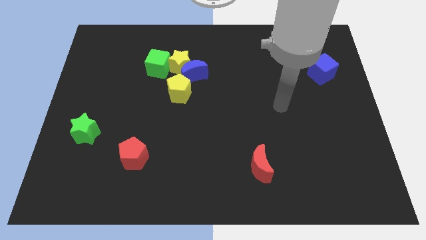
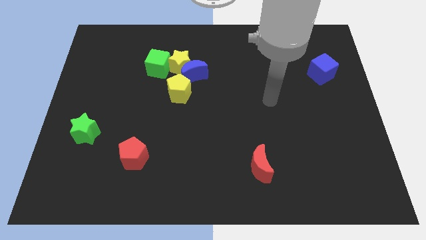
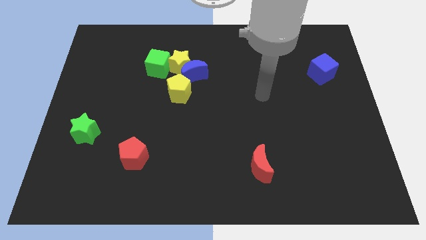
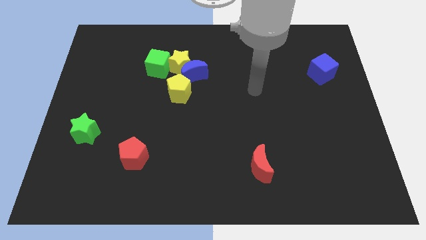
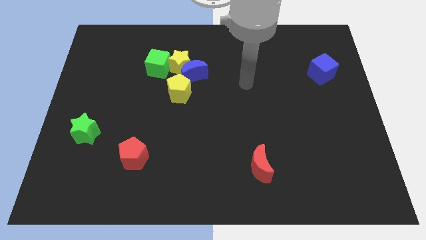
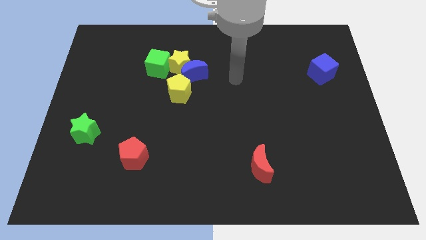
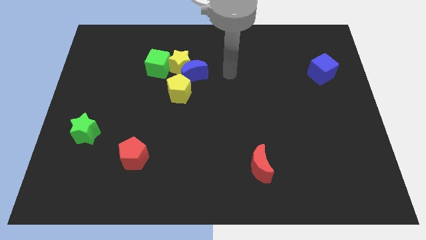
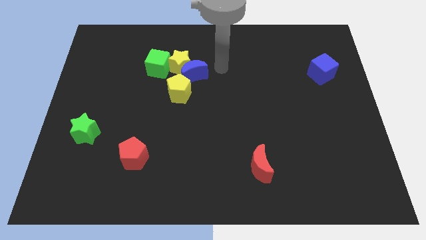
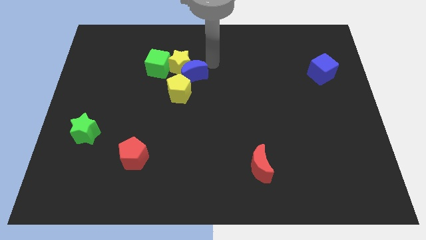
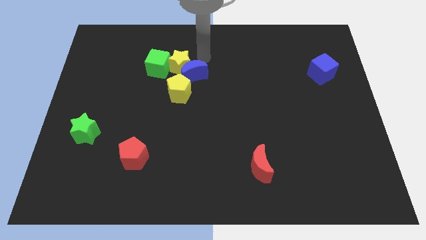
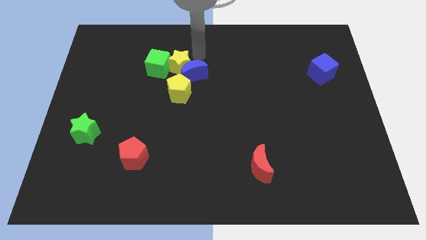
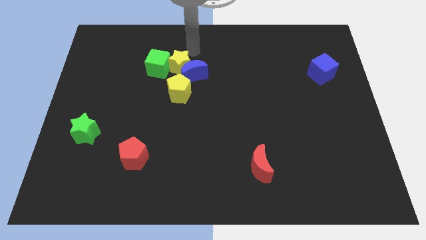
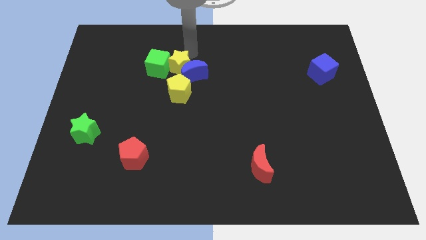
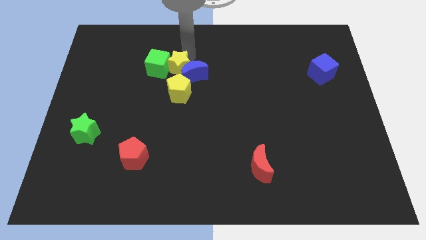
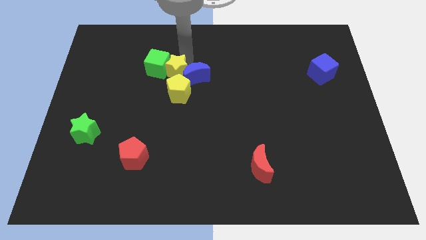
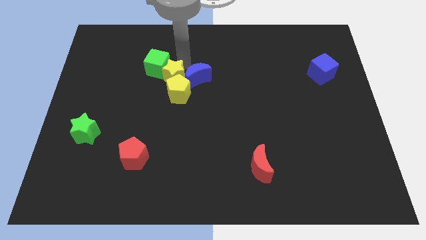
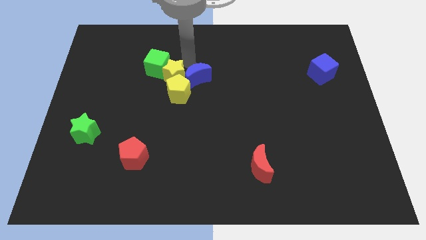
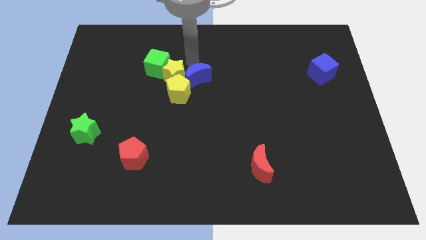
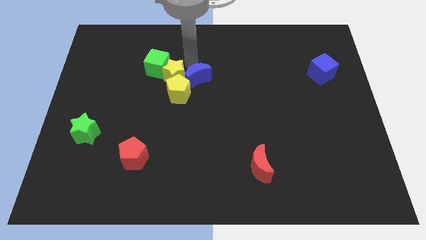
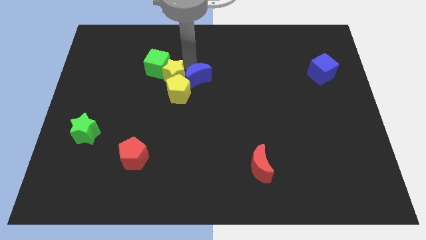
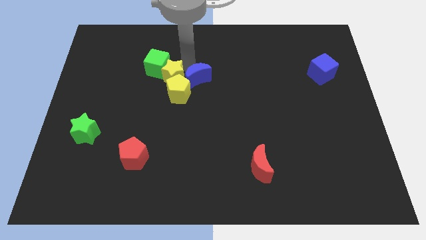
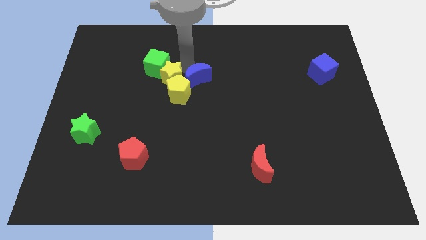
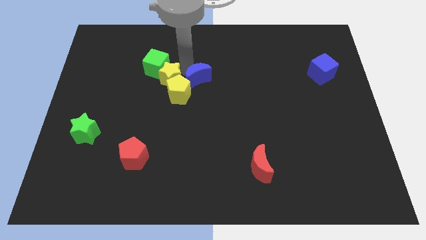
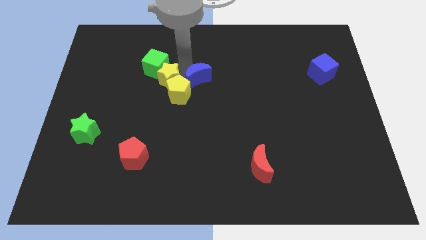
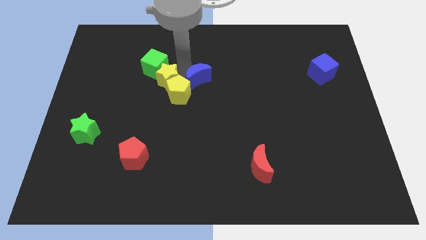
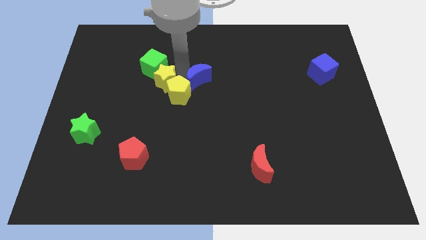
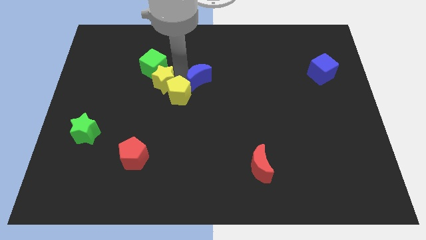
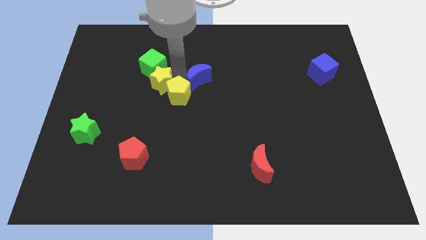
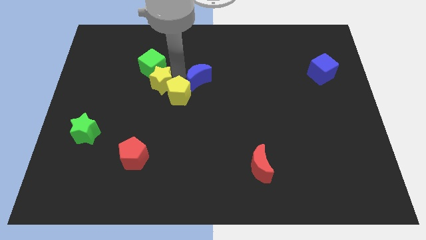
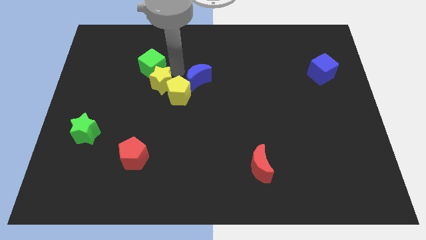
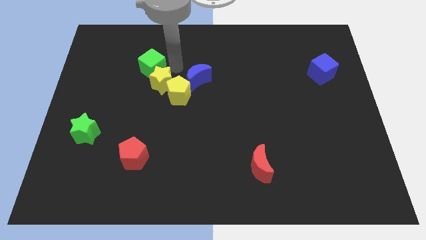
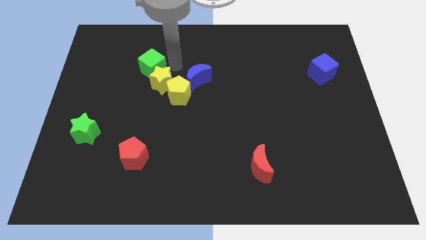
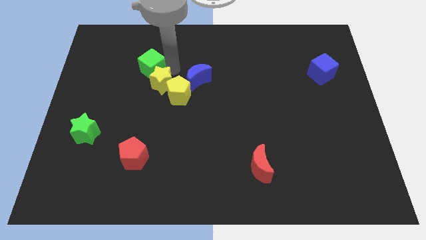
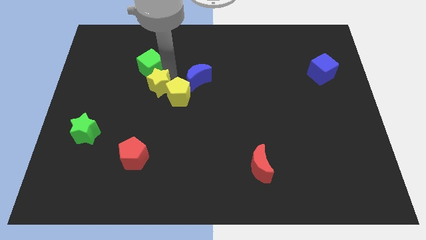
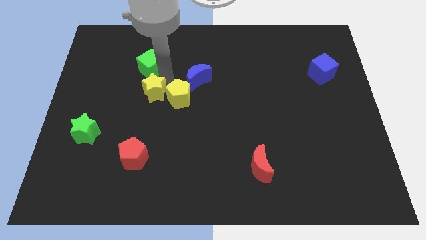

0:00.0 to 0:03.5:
slightly slide the yellow star down

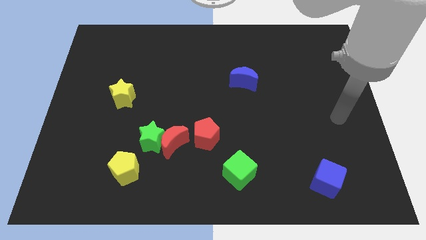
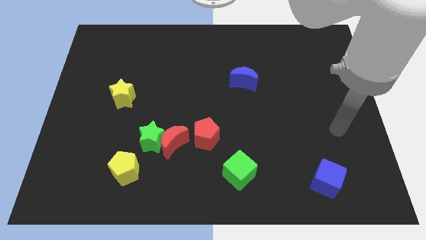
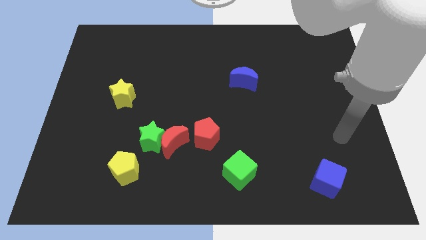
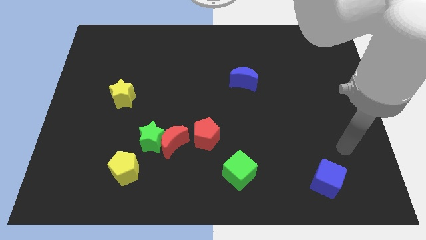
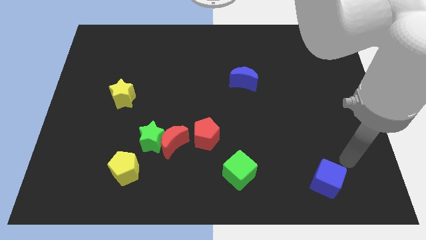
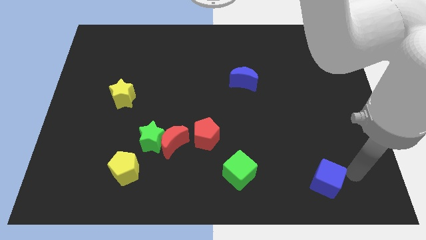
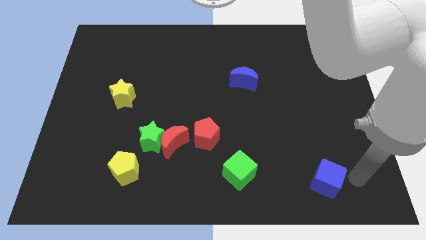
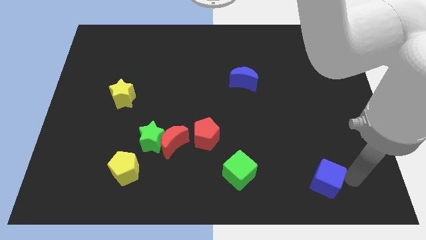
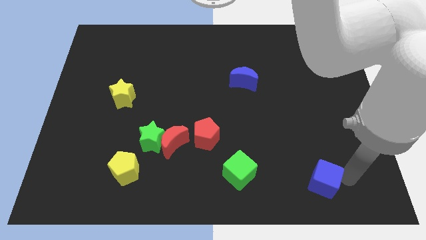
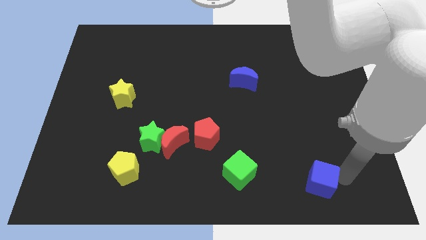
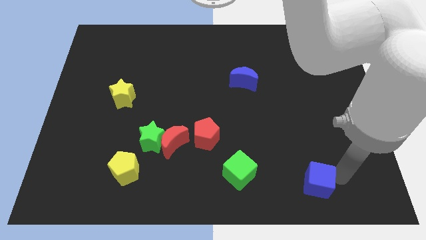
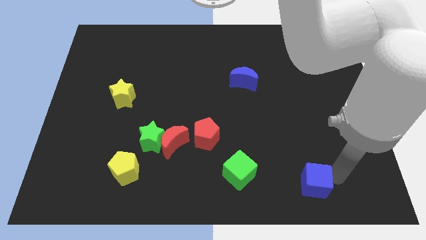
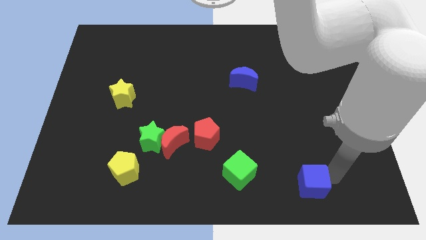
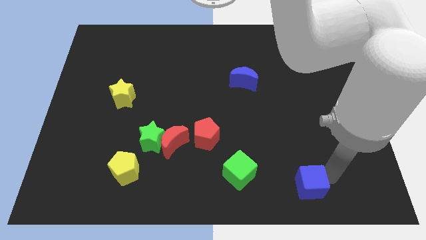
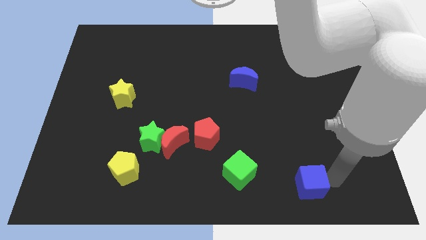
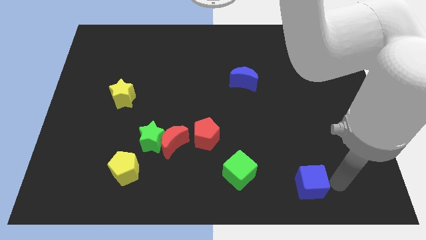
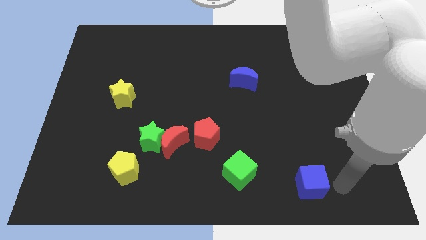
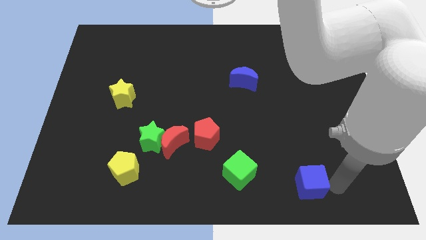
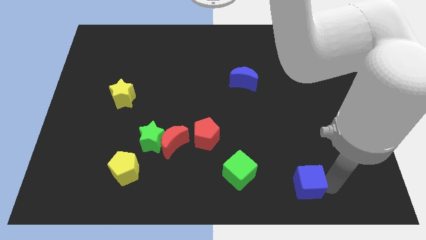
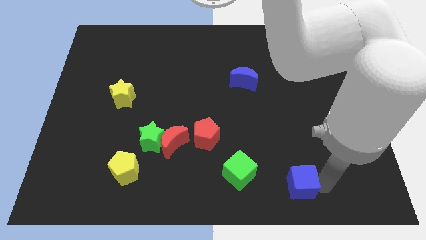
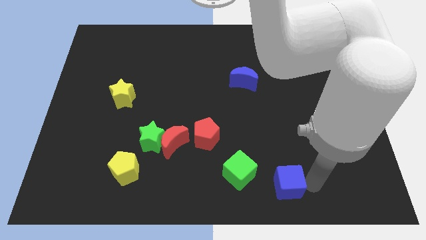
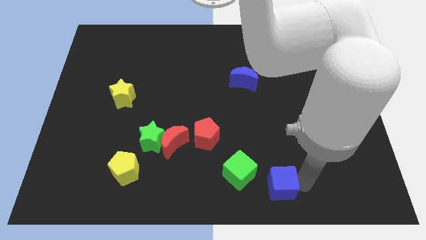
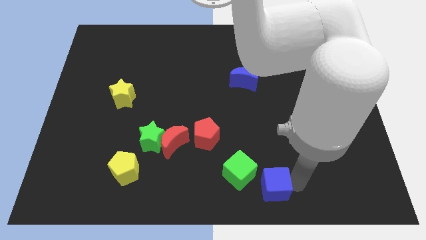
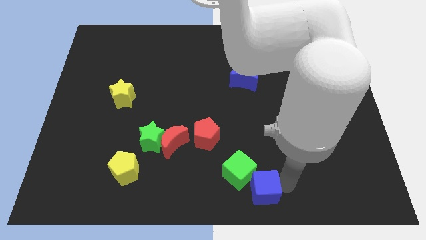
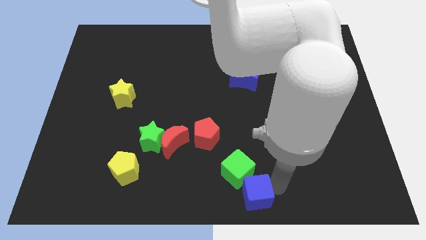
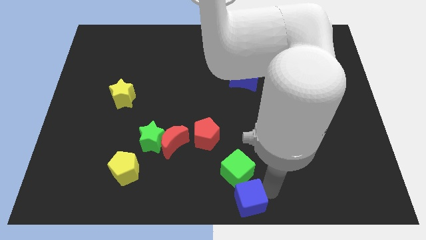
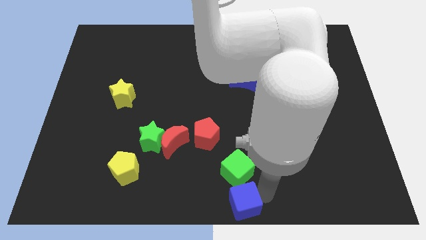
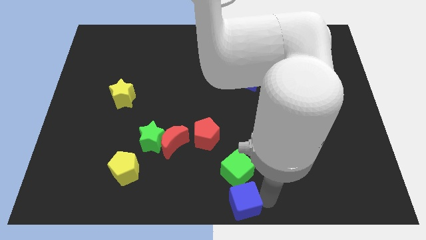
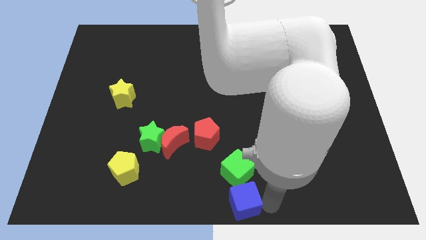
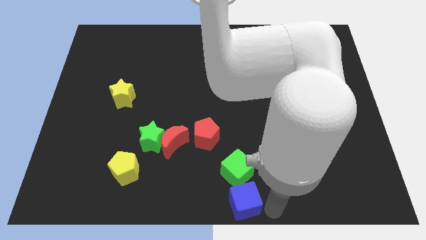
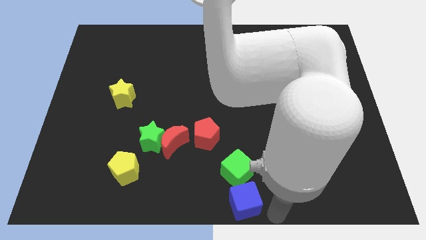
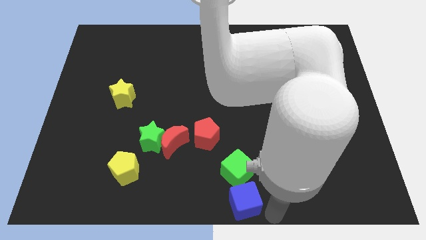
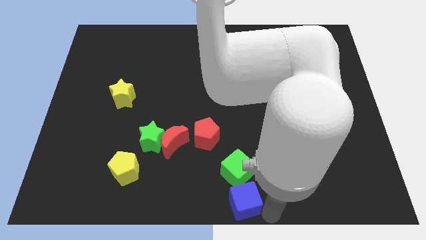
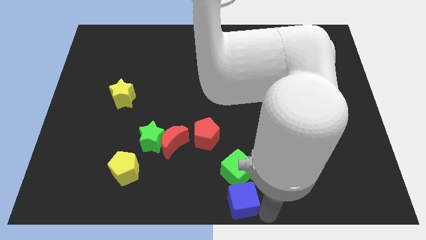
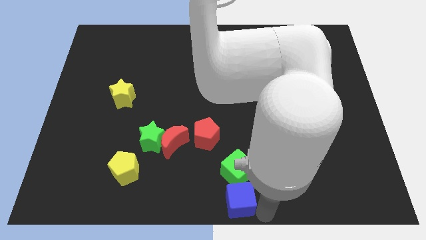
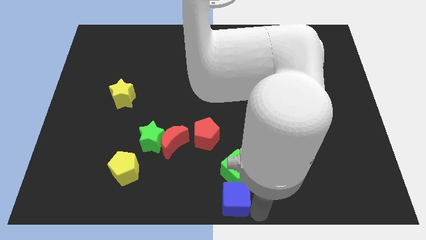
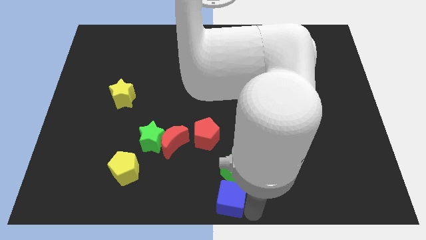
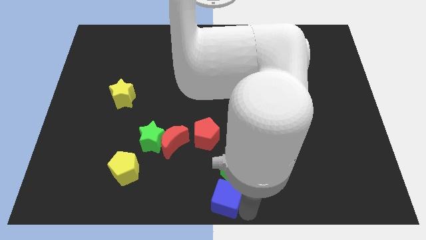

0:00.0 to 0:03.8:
slide the blue cube to the left

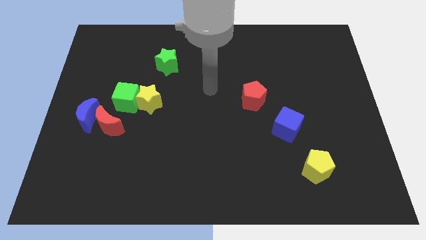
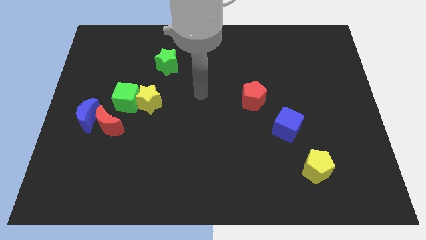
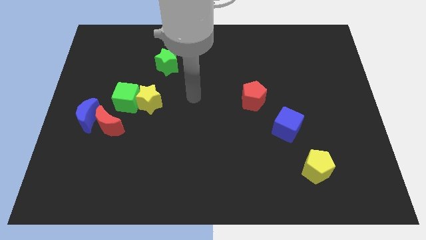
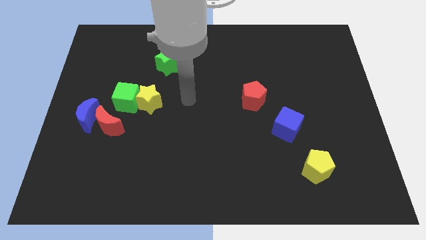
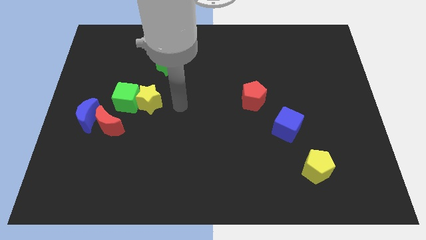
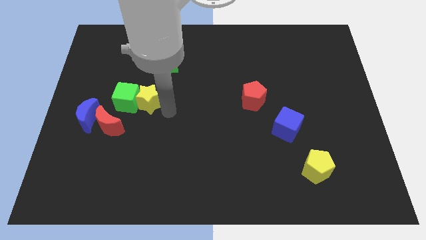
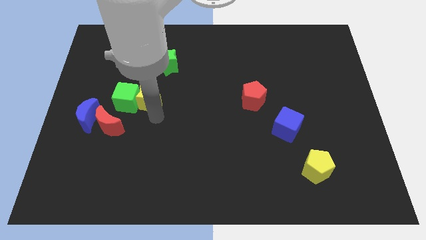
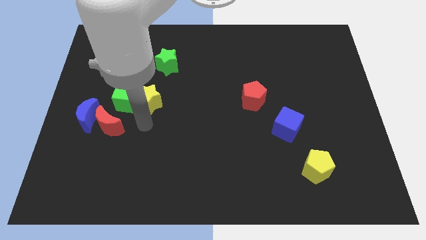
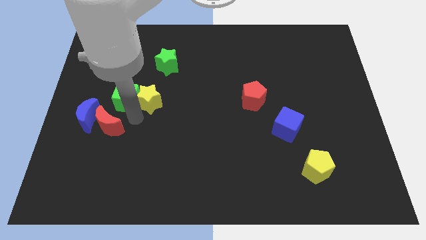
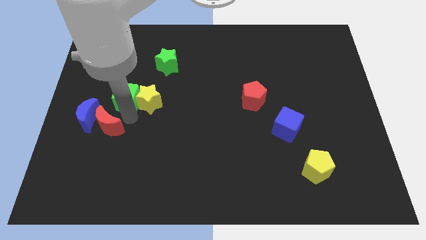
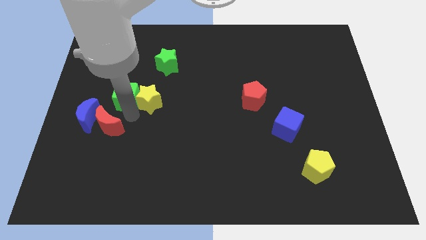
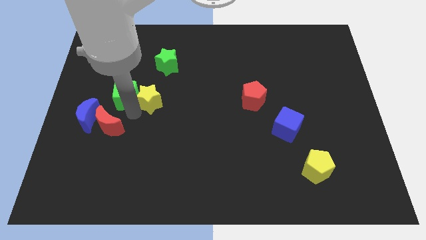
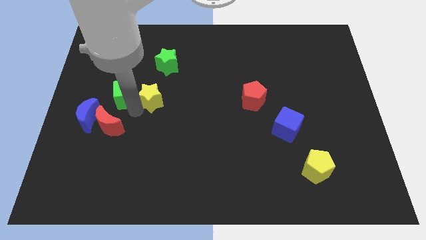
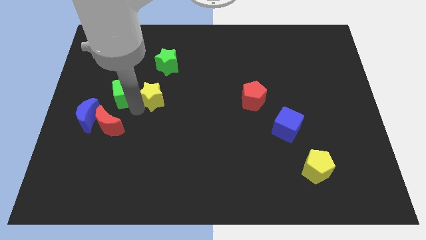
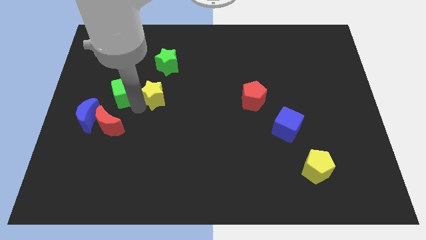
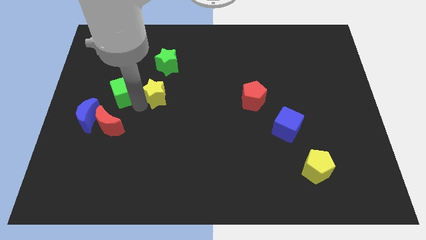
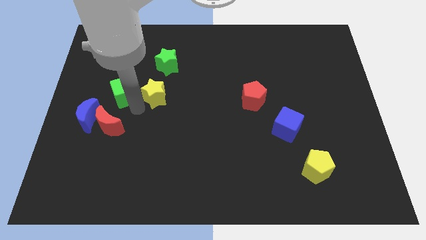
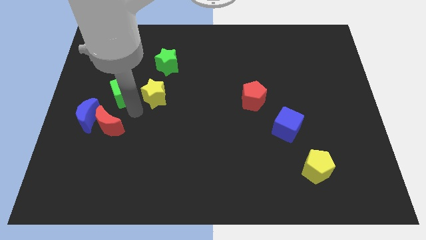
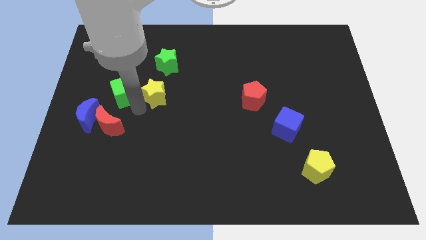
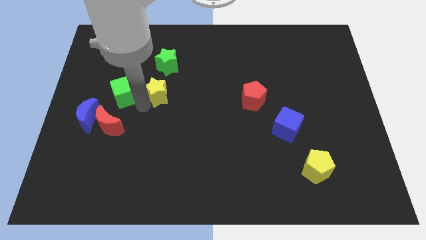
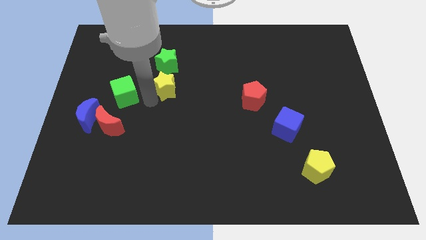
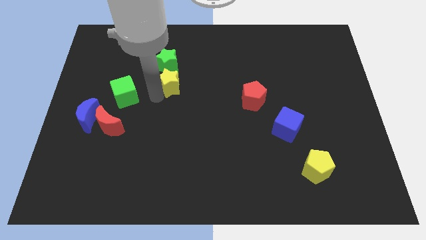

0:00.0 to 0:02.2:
slightly move the yellow star up and to the right
